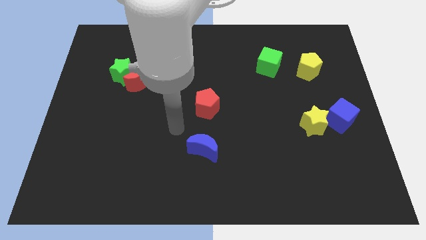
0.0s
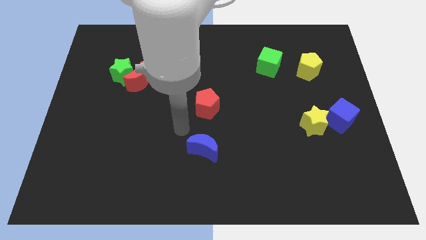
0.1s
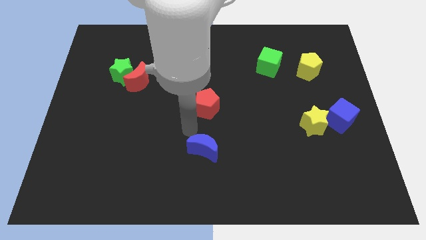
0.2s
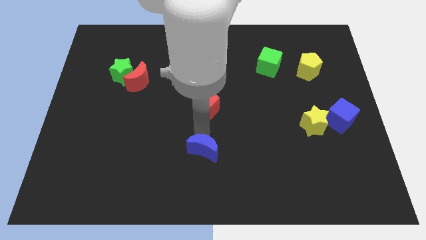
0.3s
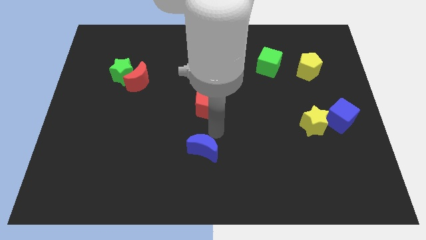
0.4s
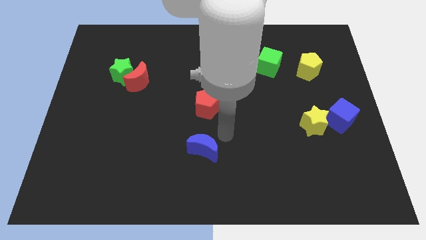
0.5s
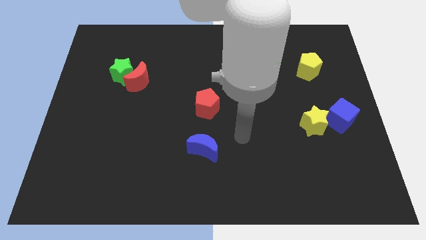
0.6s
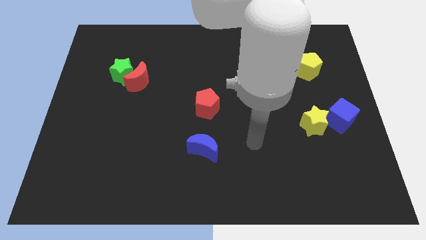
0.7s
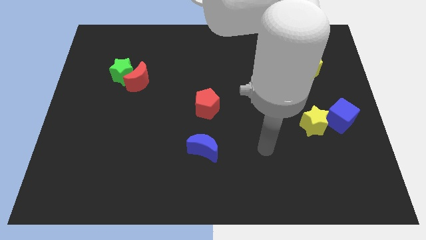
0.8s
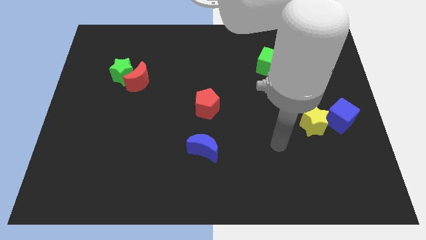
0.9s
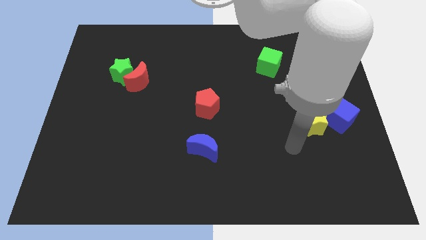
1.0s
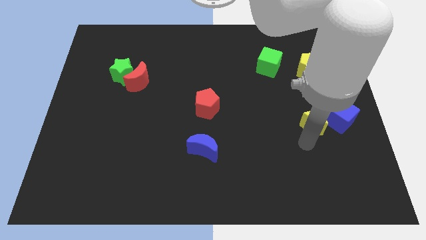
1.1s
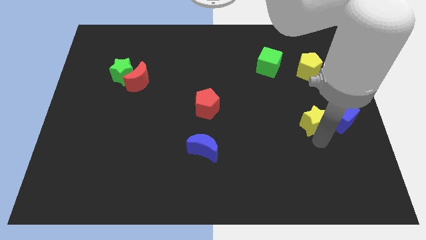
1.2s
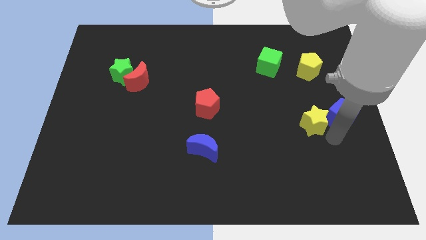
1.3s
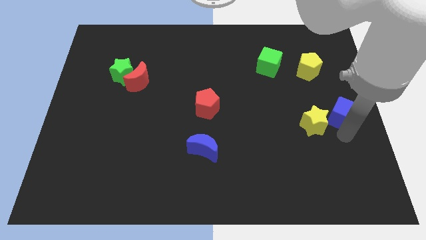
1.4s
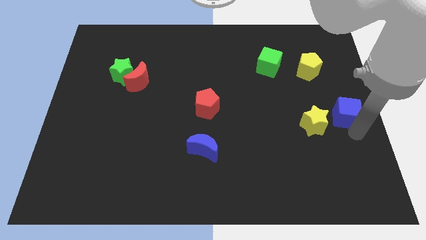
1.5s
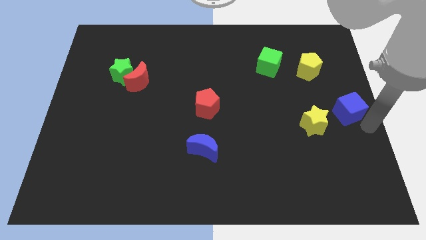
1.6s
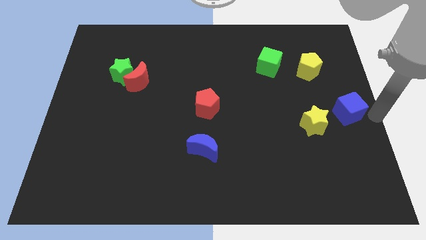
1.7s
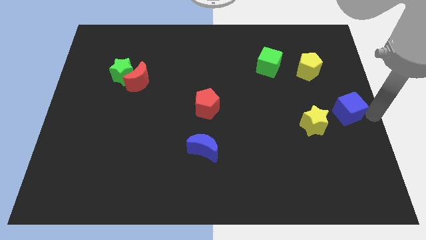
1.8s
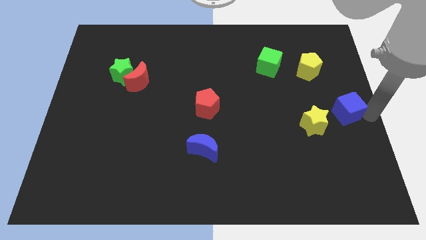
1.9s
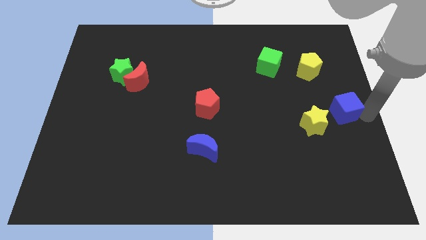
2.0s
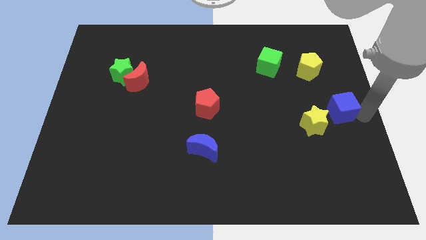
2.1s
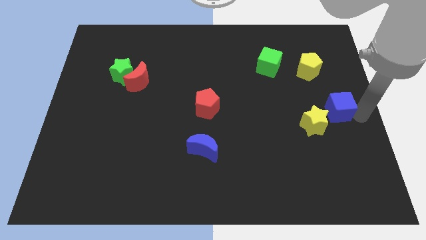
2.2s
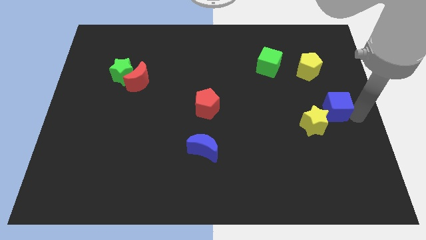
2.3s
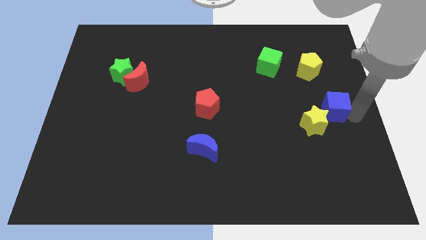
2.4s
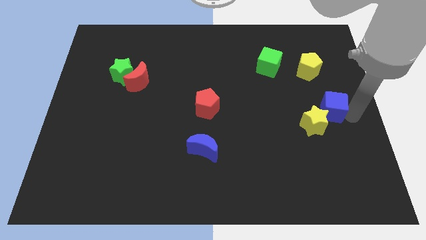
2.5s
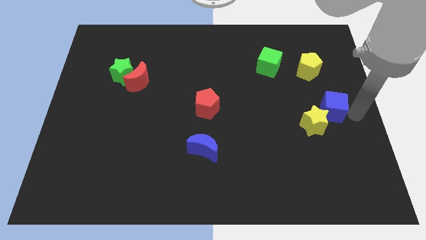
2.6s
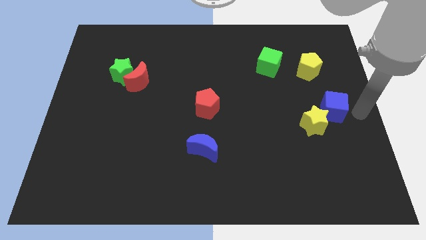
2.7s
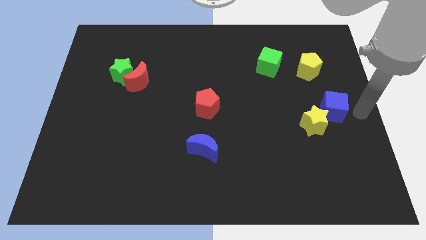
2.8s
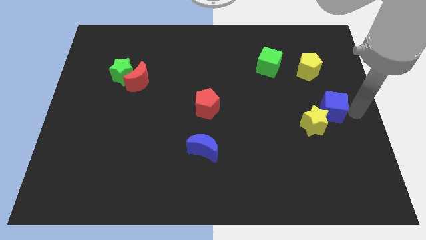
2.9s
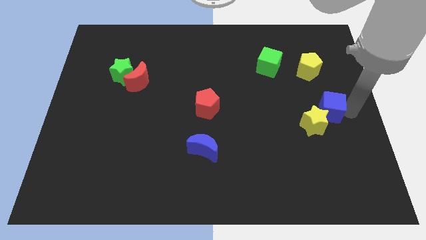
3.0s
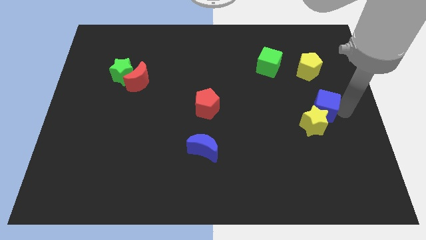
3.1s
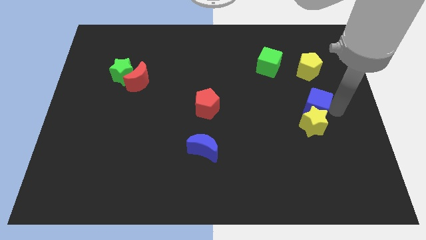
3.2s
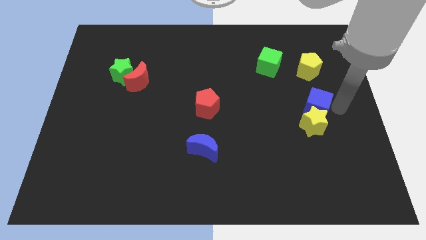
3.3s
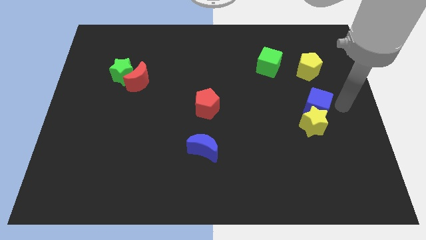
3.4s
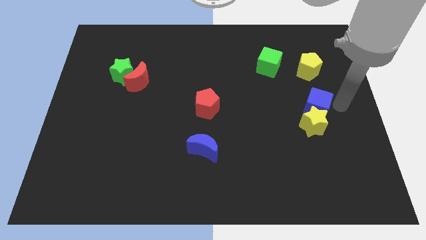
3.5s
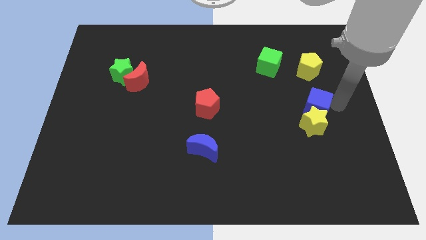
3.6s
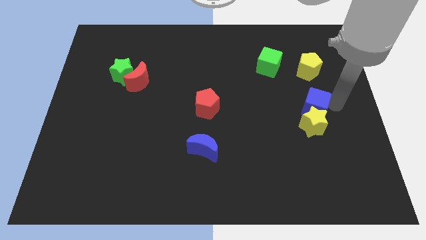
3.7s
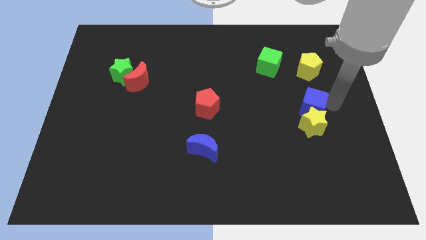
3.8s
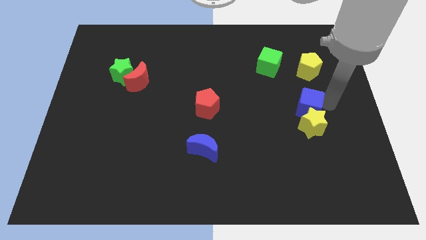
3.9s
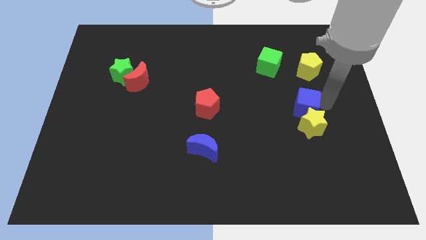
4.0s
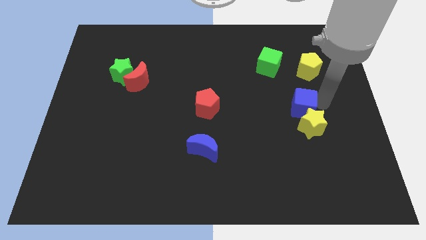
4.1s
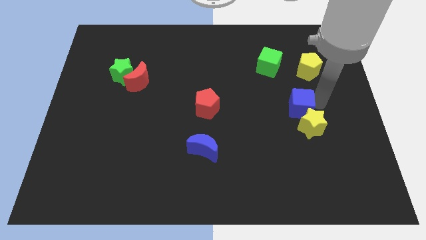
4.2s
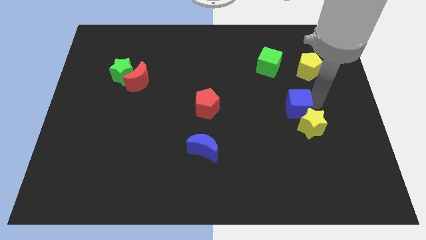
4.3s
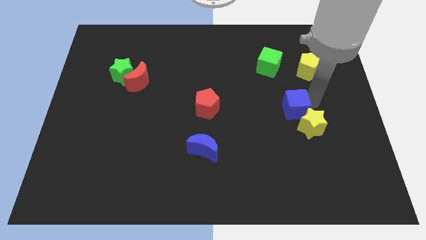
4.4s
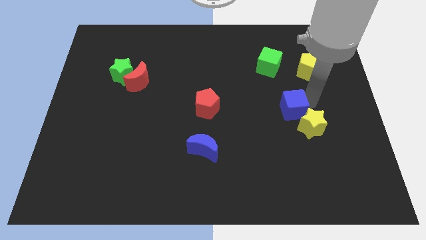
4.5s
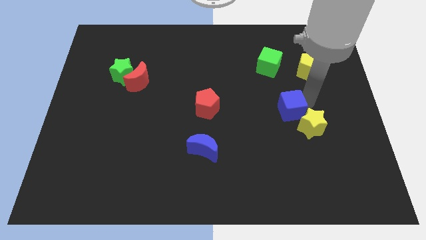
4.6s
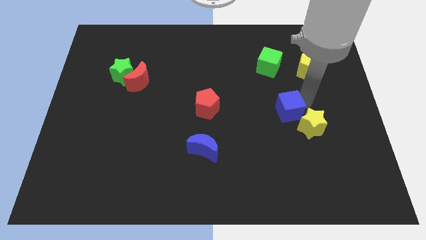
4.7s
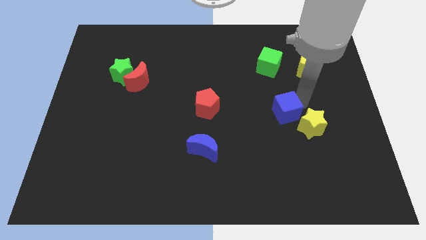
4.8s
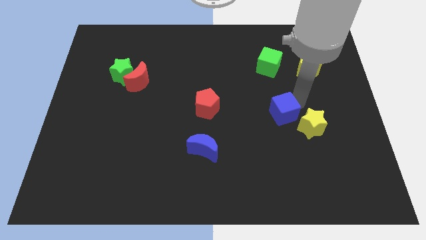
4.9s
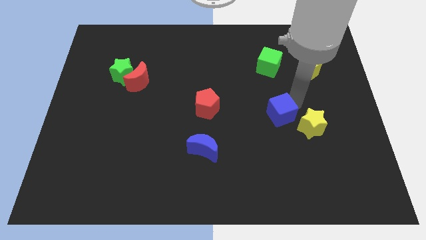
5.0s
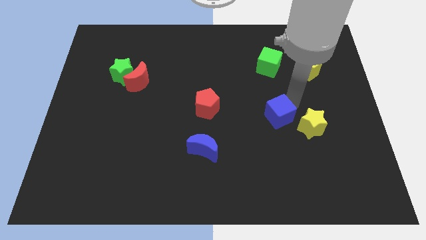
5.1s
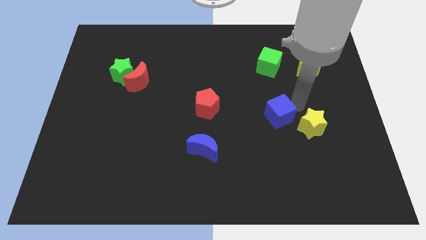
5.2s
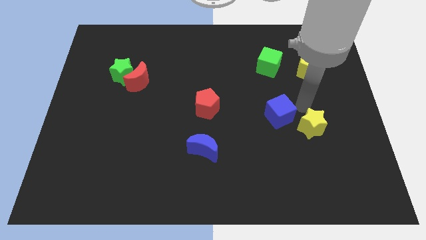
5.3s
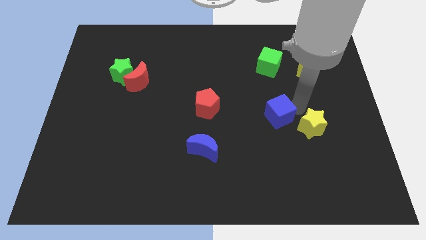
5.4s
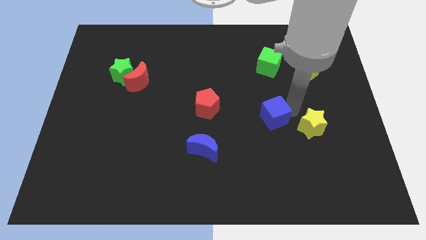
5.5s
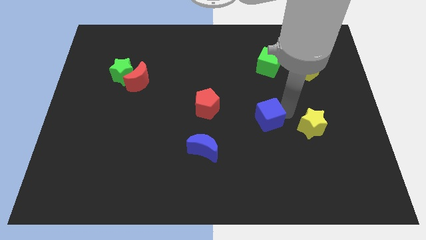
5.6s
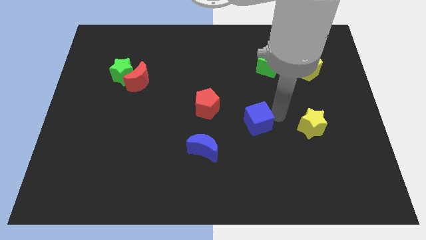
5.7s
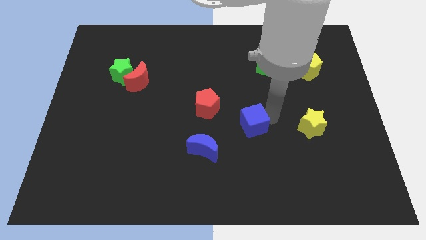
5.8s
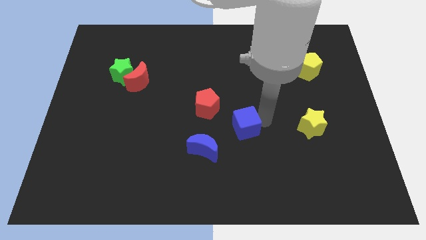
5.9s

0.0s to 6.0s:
put the blue cube to the top right of the blue moon

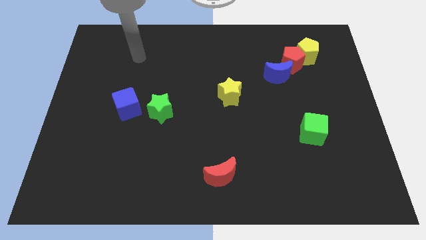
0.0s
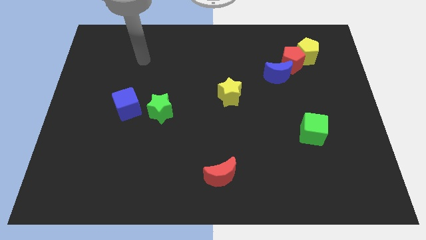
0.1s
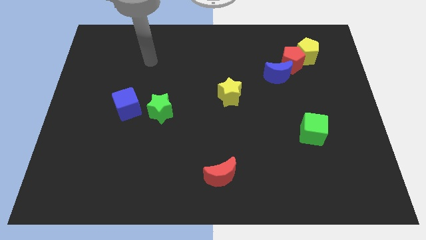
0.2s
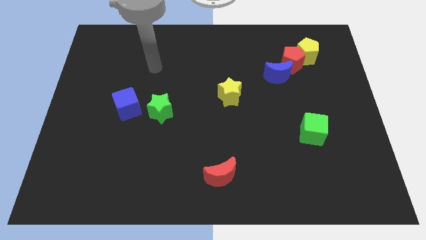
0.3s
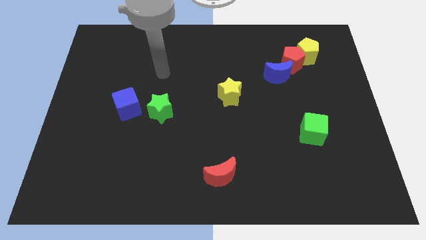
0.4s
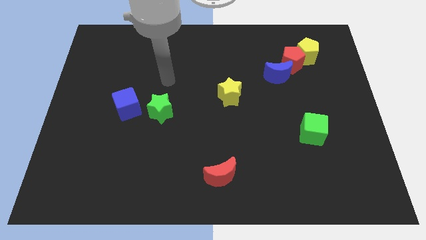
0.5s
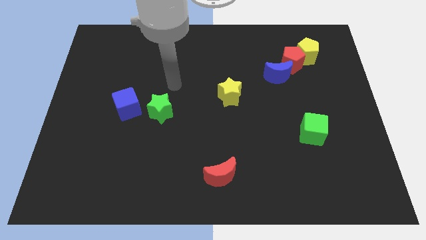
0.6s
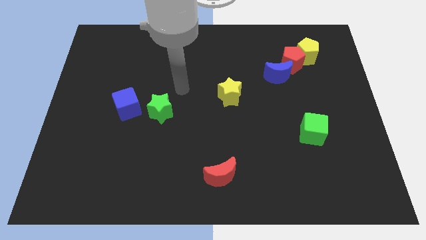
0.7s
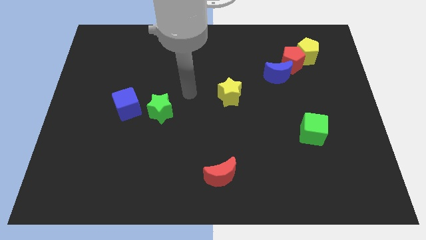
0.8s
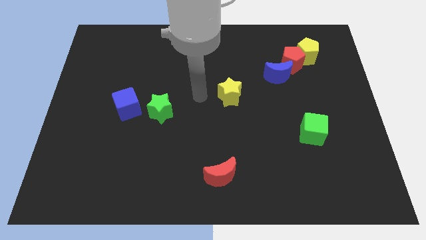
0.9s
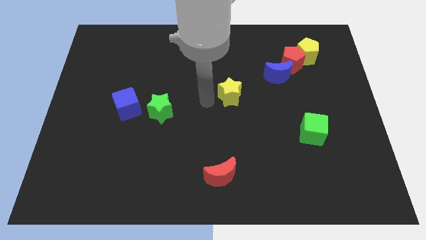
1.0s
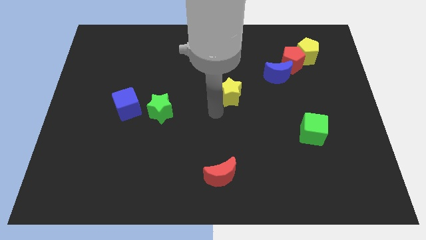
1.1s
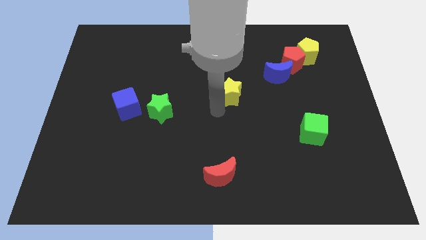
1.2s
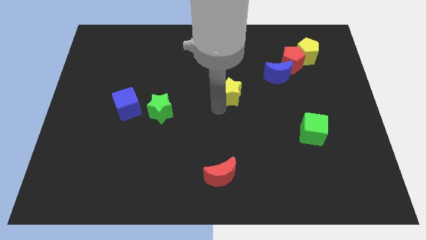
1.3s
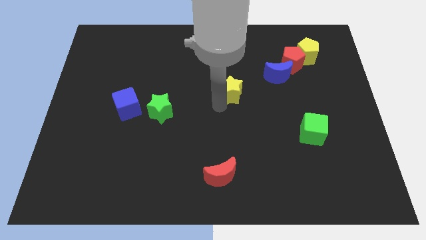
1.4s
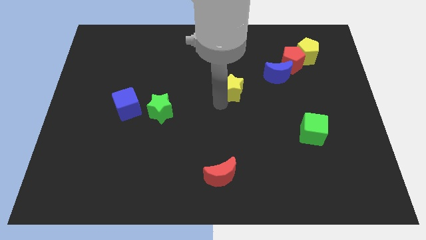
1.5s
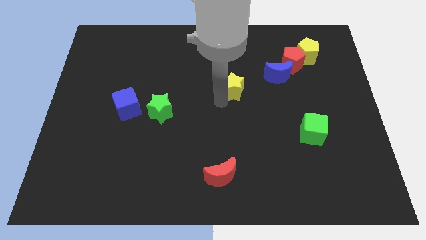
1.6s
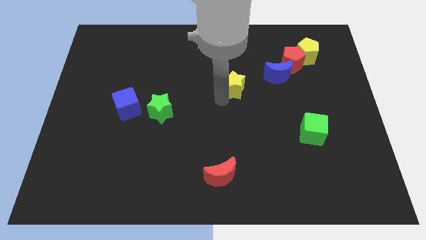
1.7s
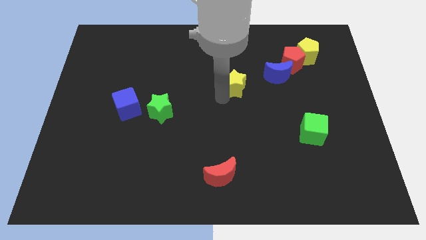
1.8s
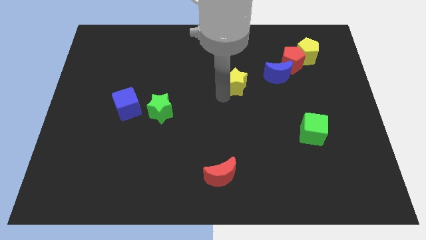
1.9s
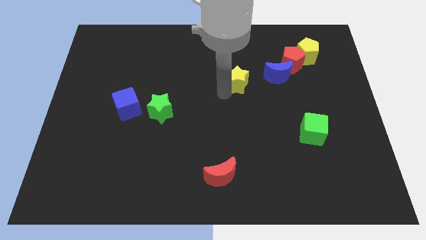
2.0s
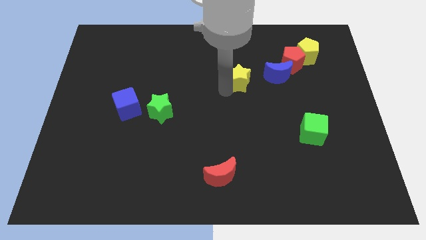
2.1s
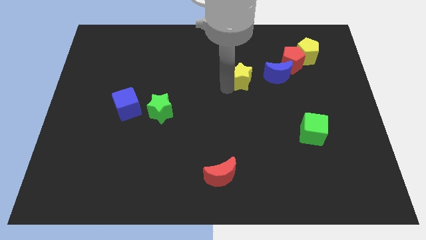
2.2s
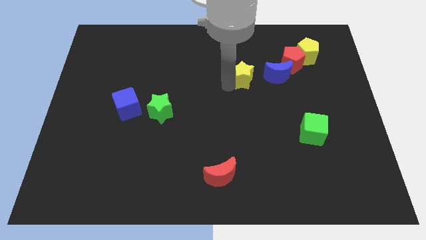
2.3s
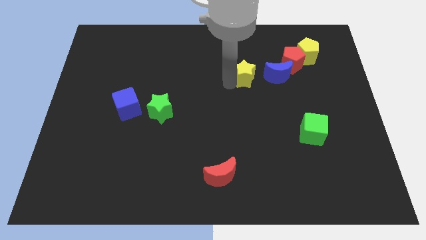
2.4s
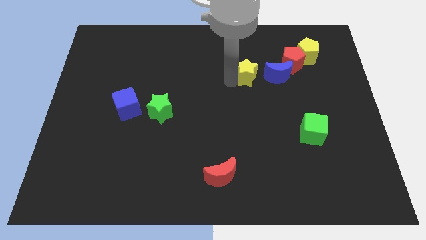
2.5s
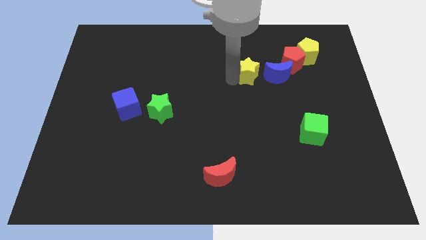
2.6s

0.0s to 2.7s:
put the yellow star to the top left side of the blue moon
